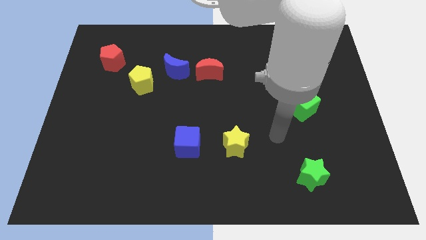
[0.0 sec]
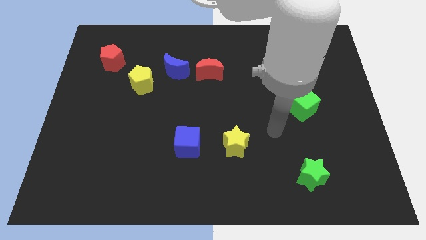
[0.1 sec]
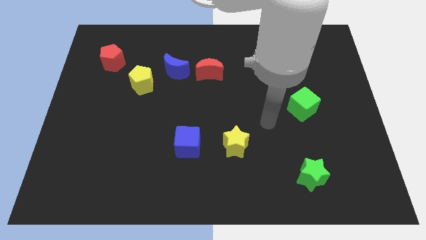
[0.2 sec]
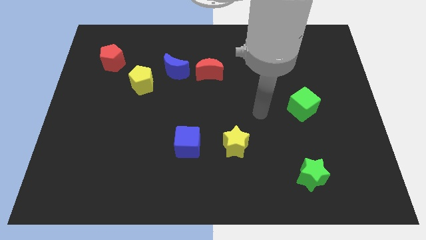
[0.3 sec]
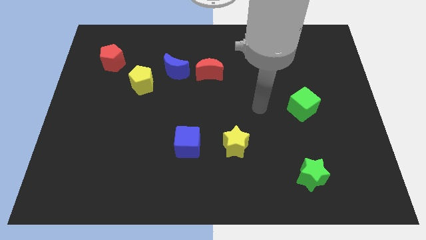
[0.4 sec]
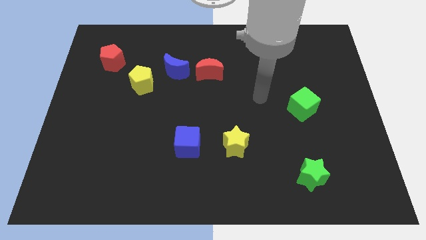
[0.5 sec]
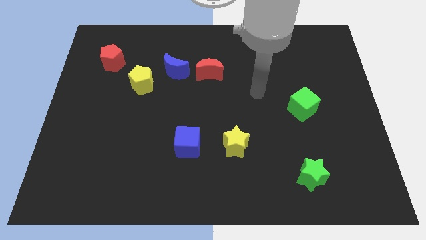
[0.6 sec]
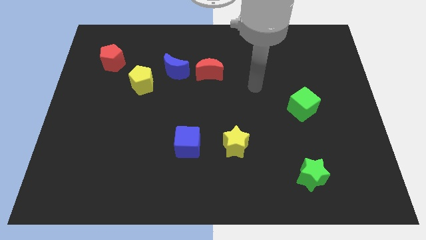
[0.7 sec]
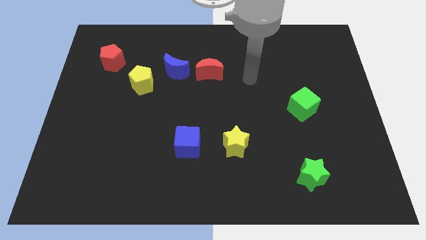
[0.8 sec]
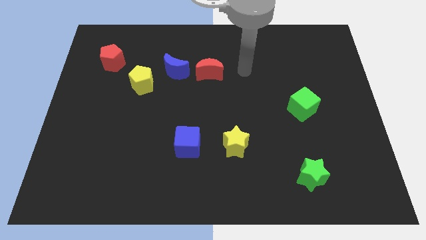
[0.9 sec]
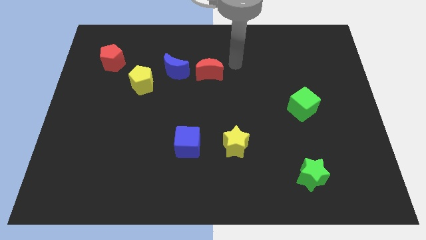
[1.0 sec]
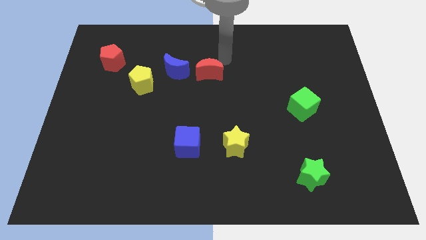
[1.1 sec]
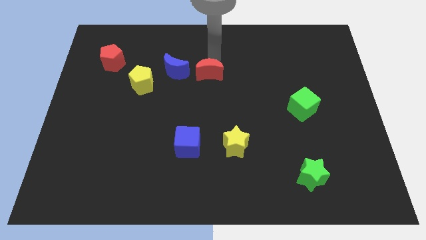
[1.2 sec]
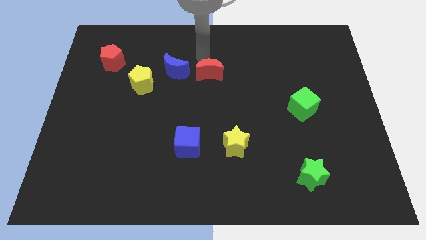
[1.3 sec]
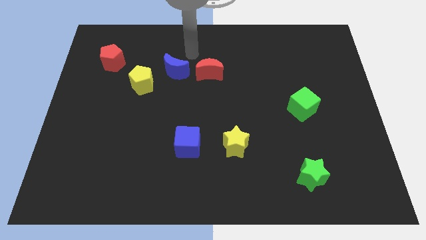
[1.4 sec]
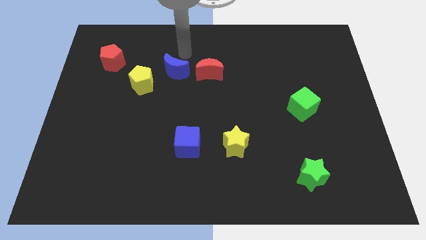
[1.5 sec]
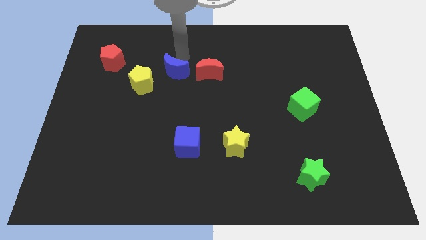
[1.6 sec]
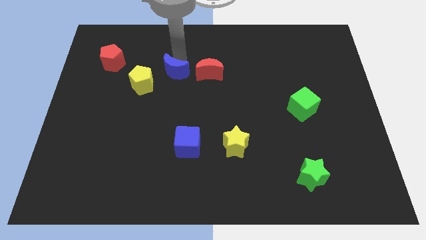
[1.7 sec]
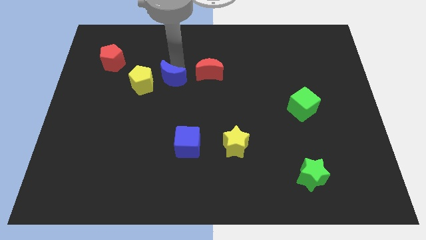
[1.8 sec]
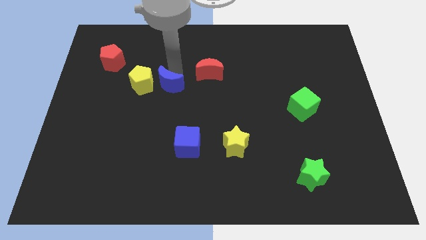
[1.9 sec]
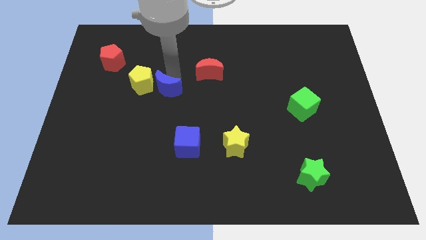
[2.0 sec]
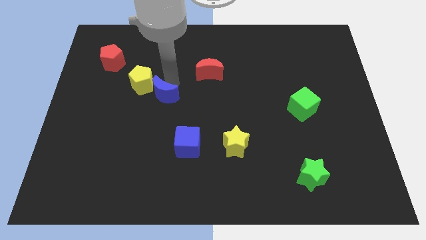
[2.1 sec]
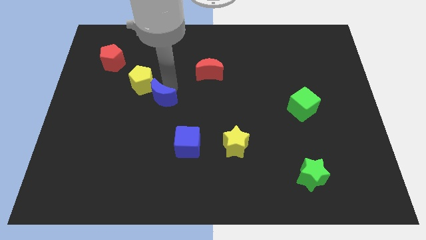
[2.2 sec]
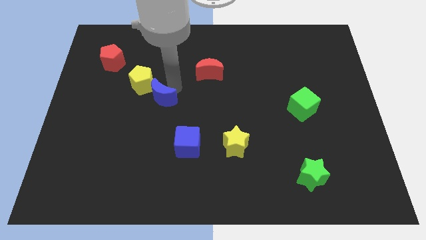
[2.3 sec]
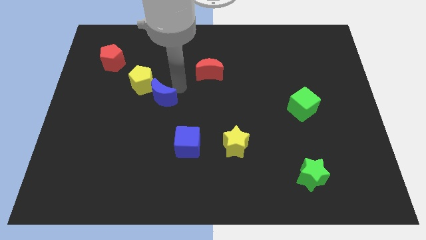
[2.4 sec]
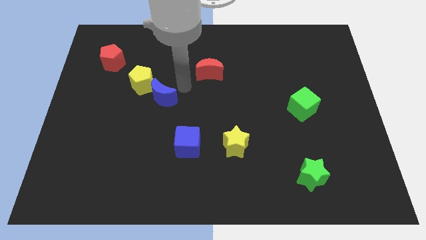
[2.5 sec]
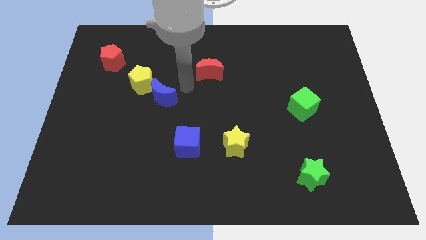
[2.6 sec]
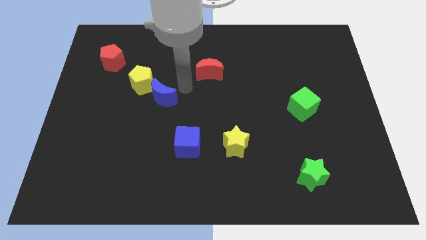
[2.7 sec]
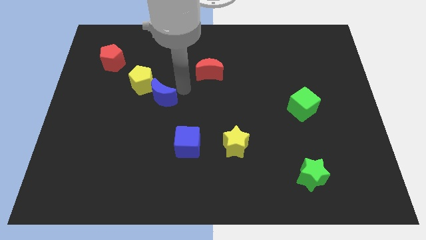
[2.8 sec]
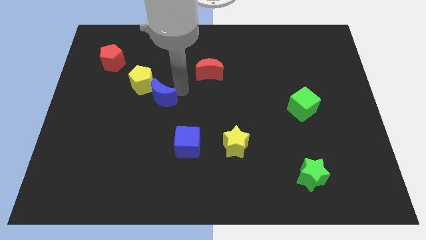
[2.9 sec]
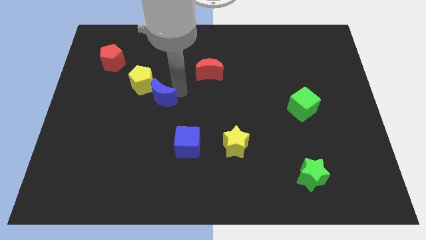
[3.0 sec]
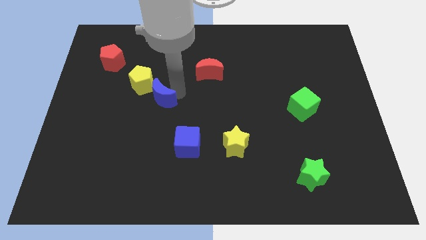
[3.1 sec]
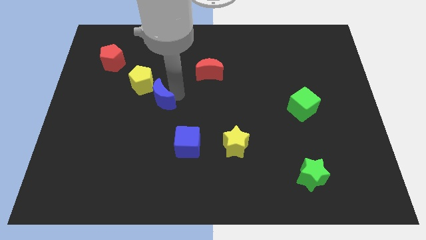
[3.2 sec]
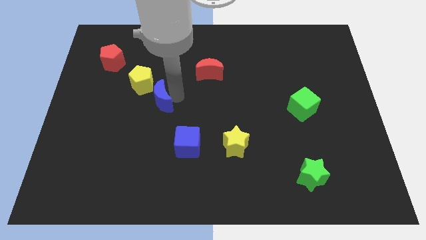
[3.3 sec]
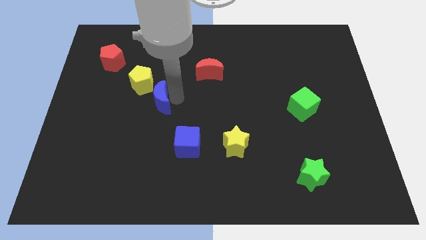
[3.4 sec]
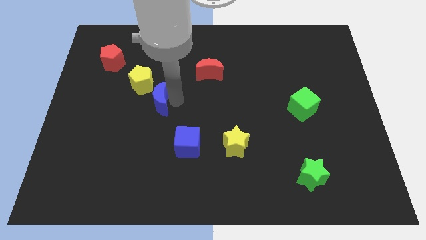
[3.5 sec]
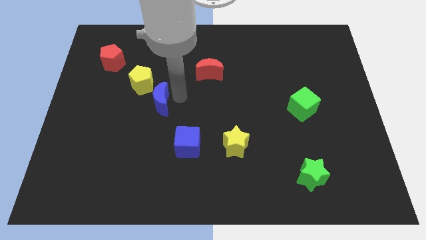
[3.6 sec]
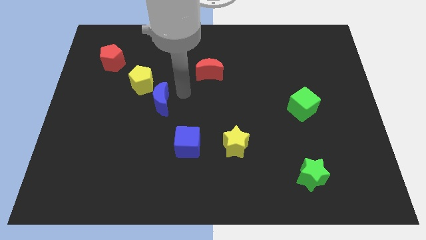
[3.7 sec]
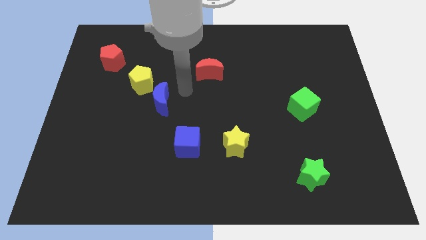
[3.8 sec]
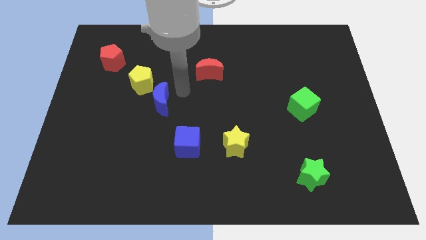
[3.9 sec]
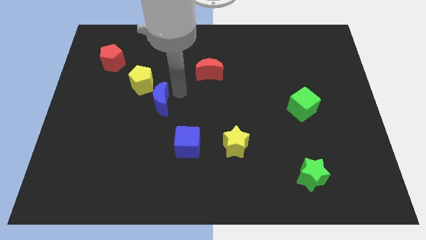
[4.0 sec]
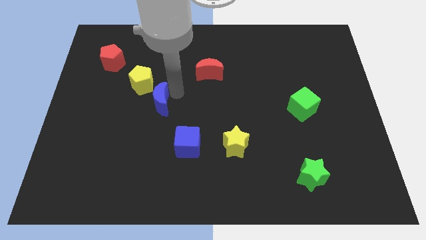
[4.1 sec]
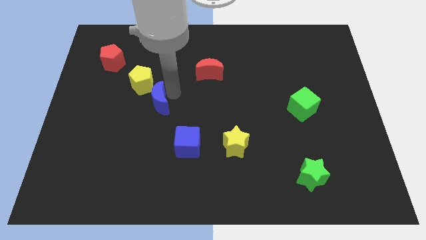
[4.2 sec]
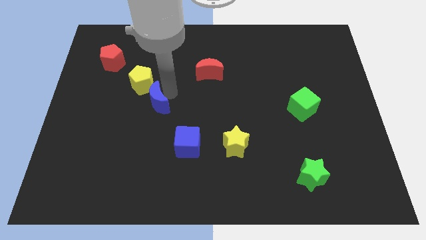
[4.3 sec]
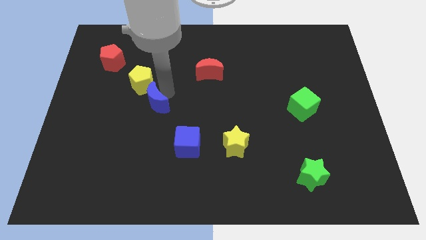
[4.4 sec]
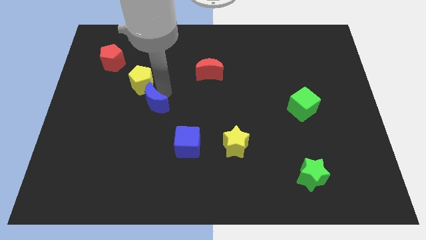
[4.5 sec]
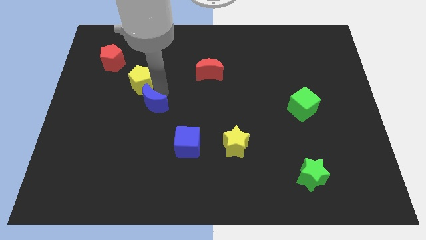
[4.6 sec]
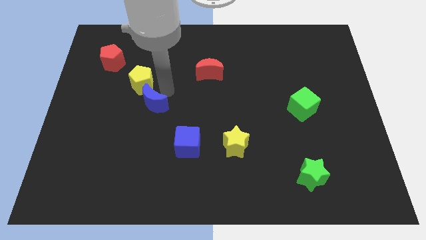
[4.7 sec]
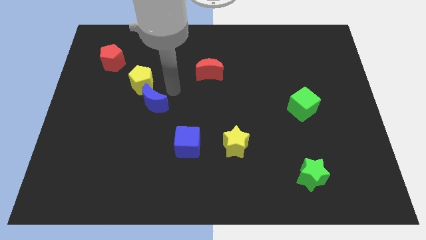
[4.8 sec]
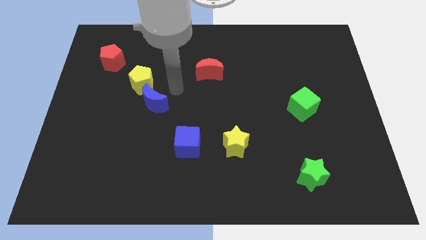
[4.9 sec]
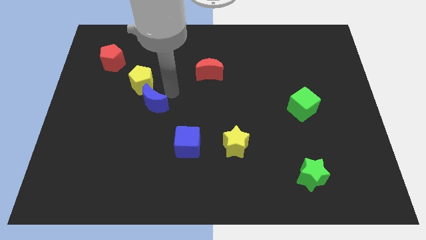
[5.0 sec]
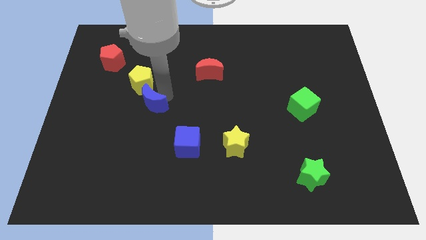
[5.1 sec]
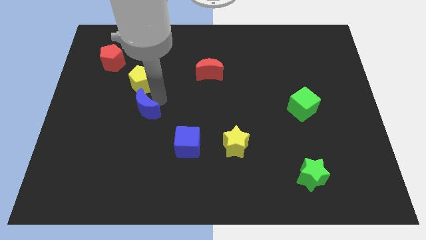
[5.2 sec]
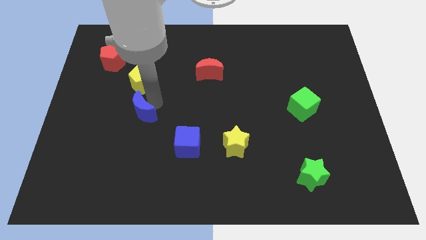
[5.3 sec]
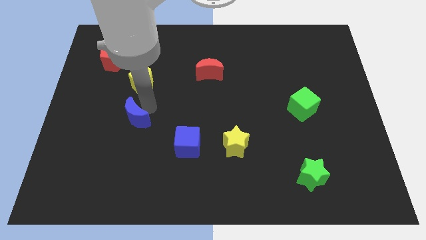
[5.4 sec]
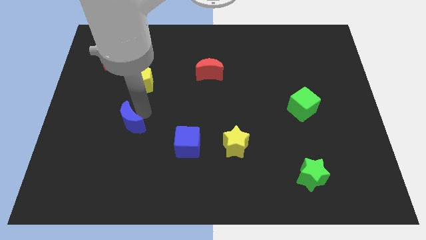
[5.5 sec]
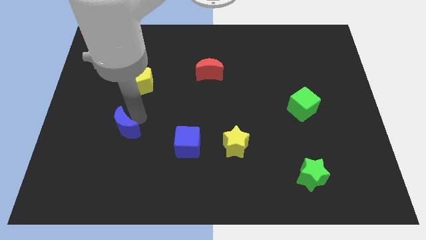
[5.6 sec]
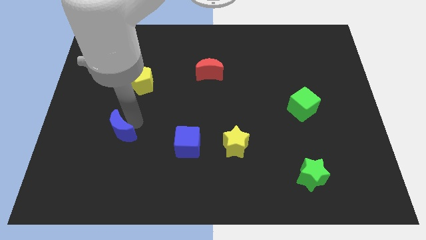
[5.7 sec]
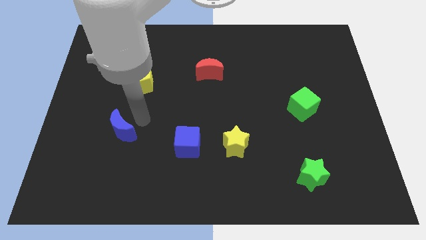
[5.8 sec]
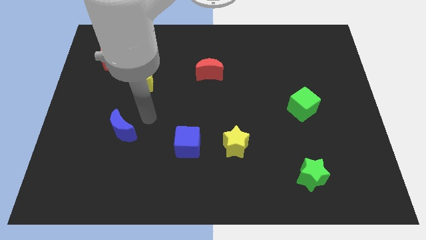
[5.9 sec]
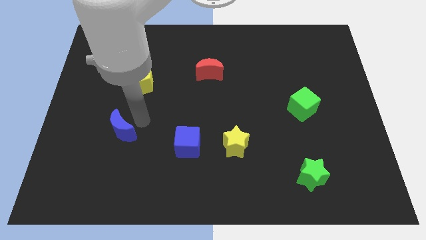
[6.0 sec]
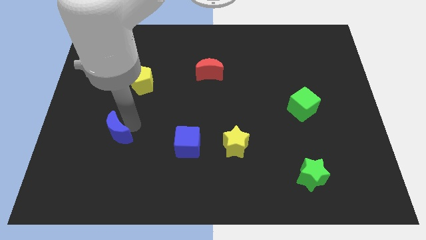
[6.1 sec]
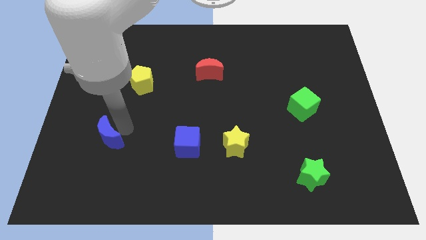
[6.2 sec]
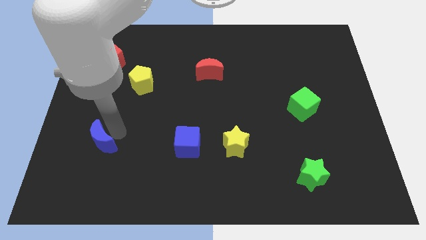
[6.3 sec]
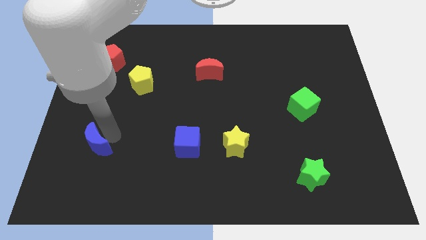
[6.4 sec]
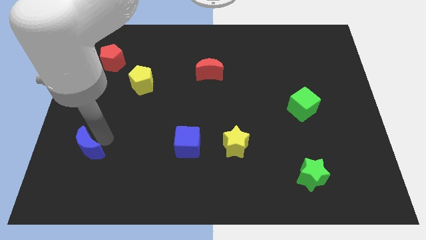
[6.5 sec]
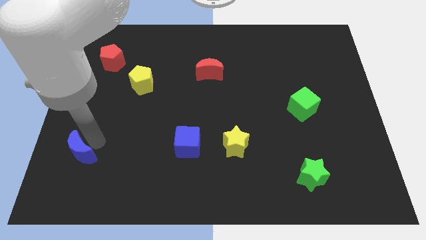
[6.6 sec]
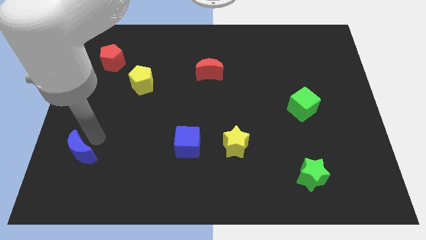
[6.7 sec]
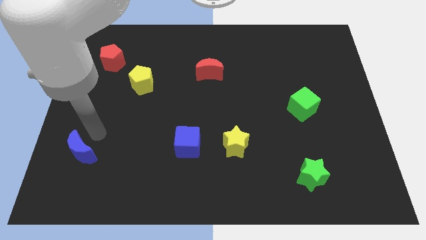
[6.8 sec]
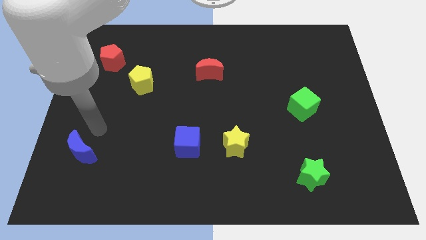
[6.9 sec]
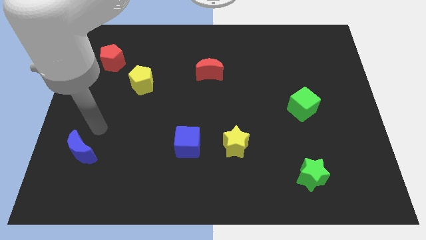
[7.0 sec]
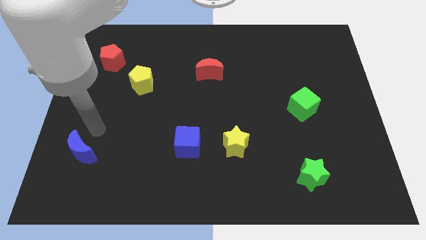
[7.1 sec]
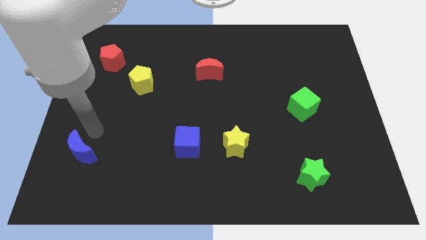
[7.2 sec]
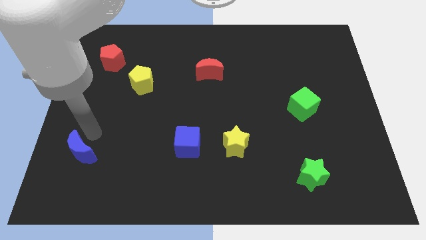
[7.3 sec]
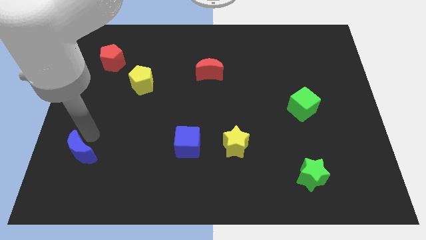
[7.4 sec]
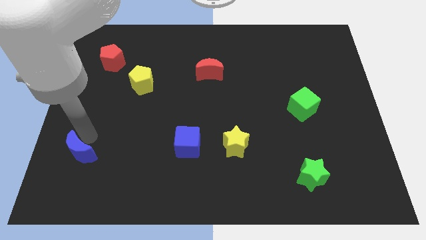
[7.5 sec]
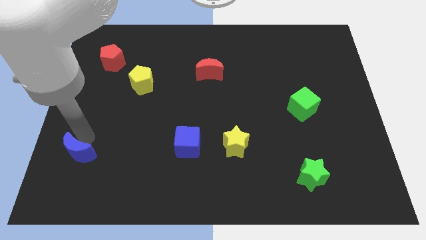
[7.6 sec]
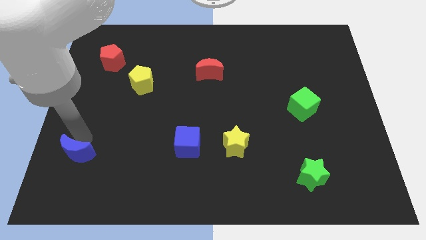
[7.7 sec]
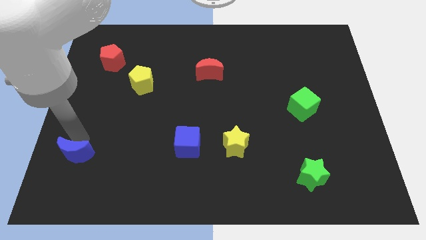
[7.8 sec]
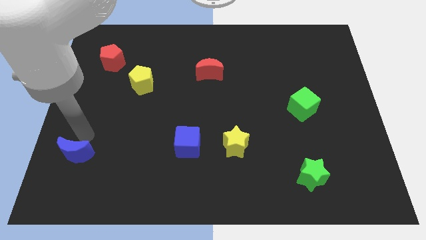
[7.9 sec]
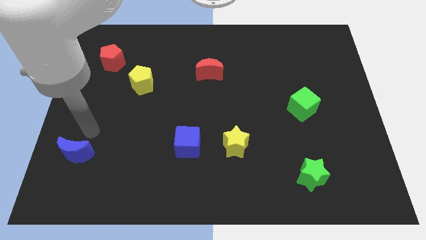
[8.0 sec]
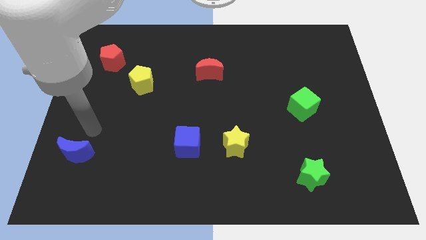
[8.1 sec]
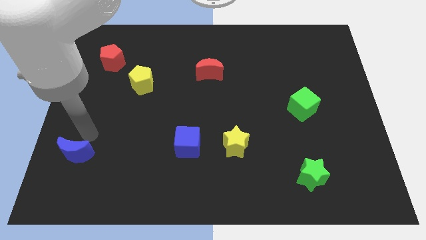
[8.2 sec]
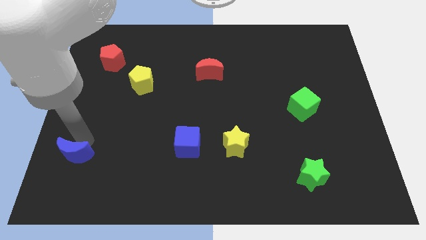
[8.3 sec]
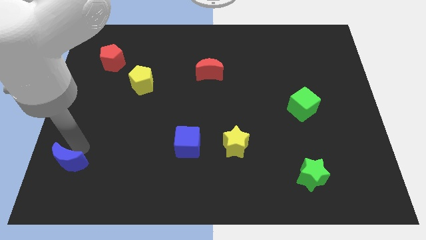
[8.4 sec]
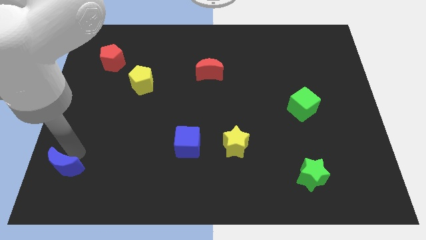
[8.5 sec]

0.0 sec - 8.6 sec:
push the blue moon to the bottom left corner
